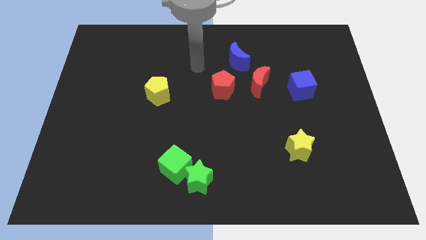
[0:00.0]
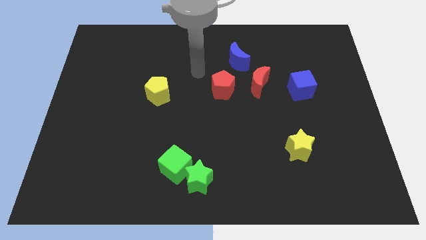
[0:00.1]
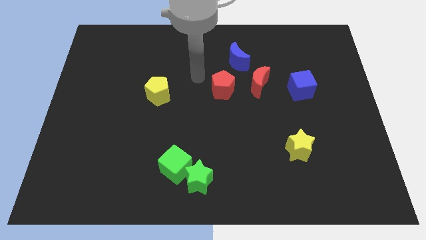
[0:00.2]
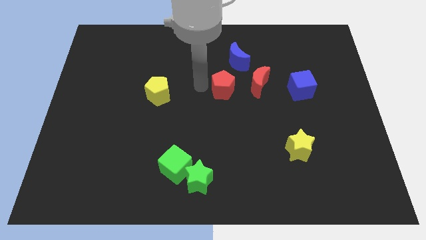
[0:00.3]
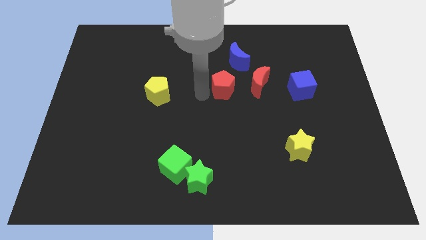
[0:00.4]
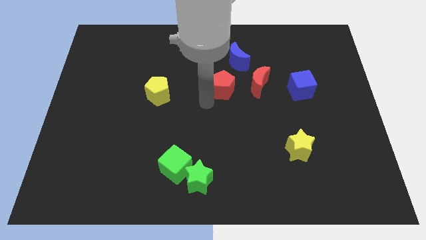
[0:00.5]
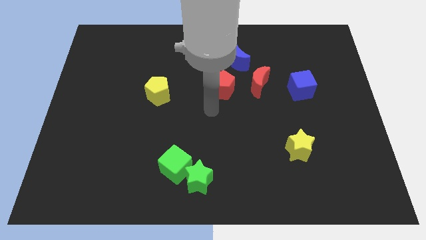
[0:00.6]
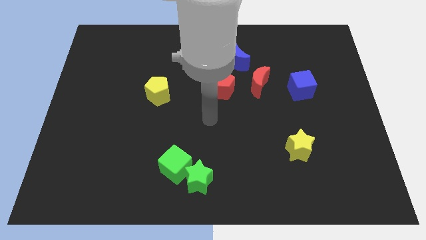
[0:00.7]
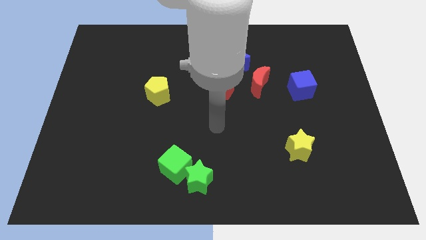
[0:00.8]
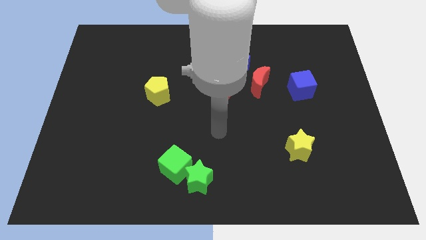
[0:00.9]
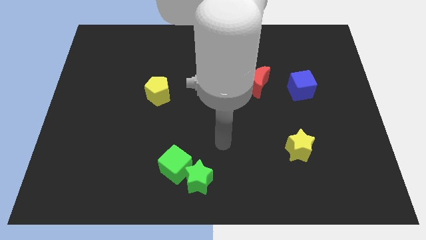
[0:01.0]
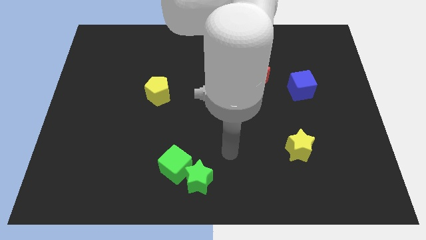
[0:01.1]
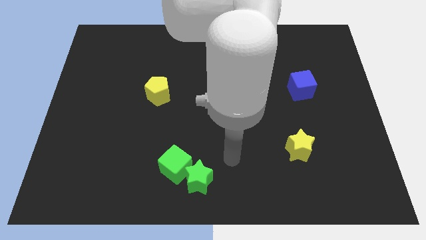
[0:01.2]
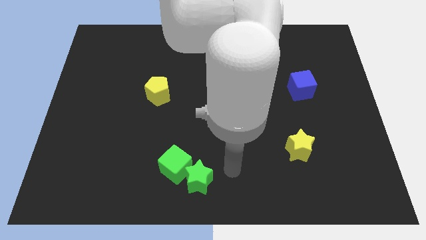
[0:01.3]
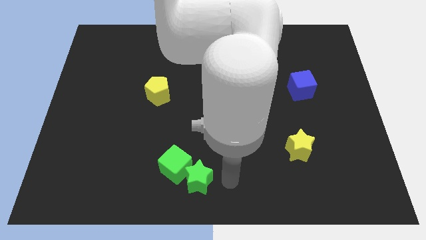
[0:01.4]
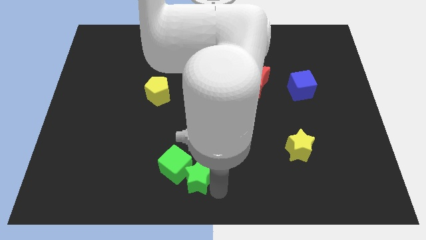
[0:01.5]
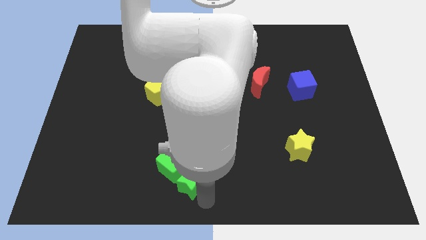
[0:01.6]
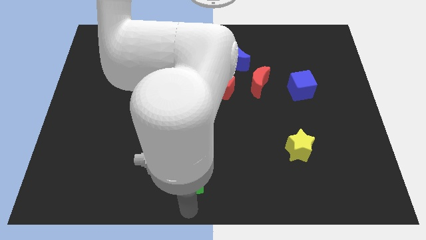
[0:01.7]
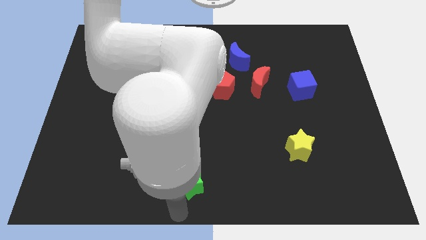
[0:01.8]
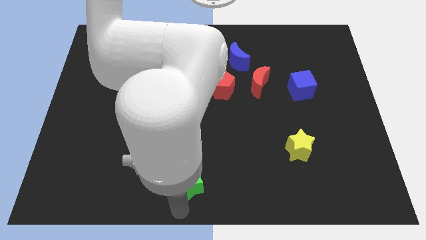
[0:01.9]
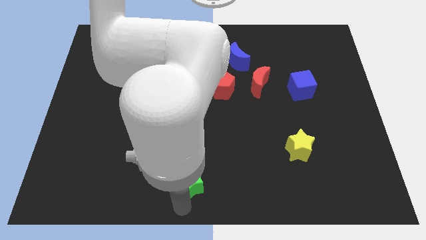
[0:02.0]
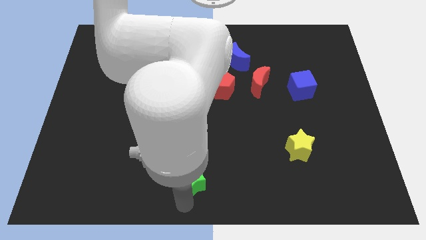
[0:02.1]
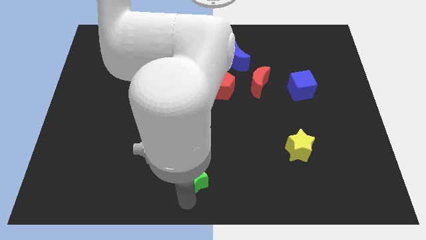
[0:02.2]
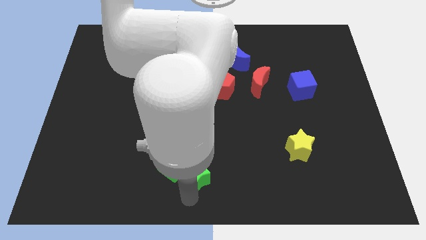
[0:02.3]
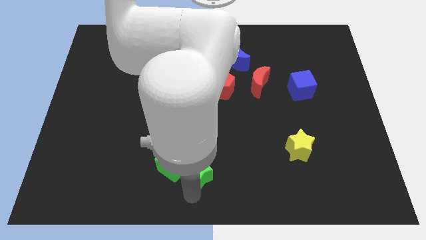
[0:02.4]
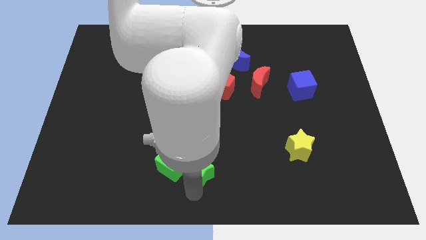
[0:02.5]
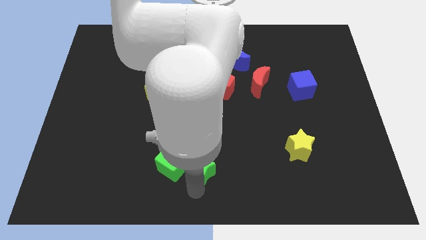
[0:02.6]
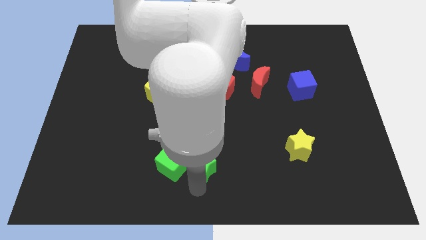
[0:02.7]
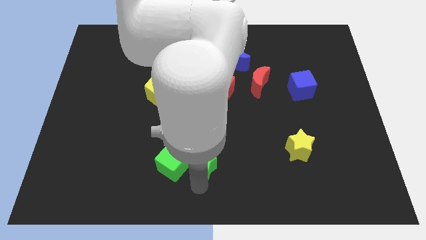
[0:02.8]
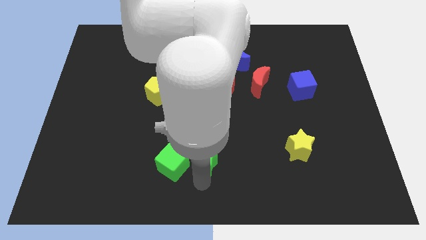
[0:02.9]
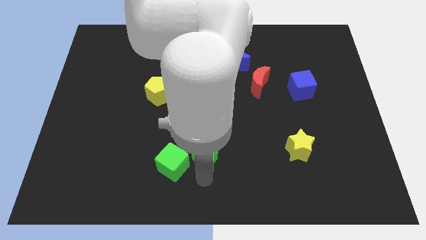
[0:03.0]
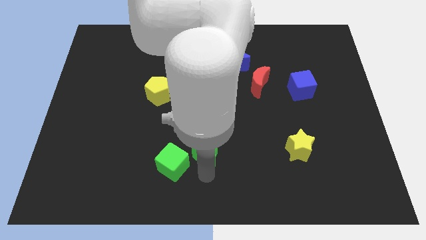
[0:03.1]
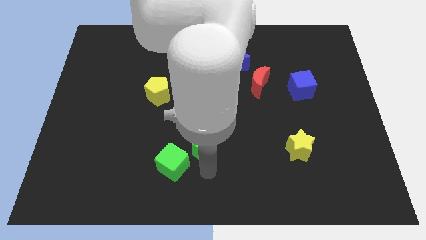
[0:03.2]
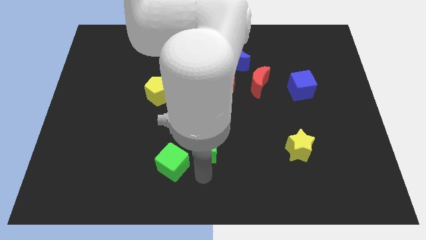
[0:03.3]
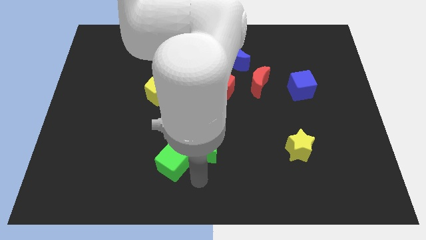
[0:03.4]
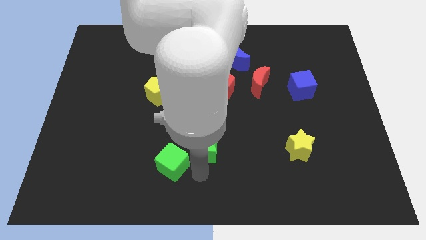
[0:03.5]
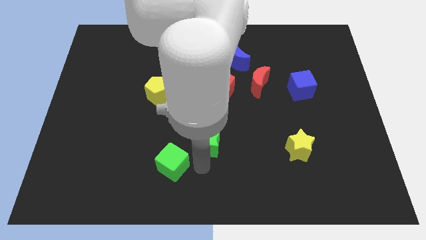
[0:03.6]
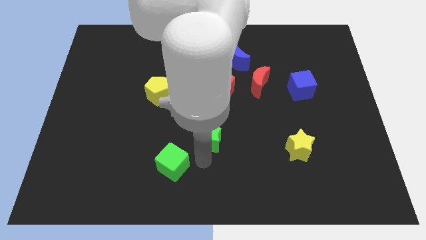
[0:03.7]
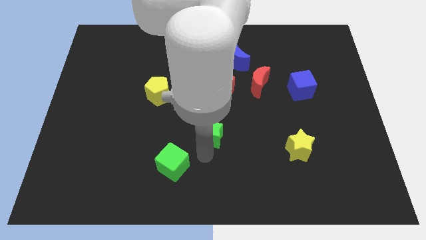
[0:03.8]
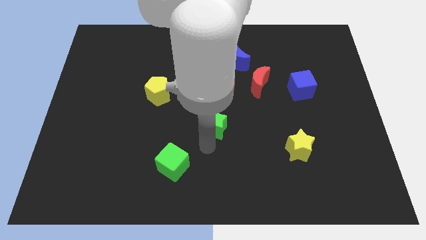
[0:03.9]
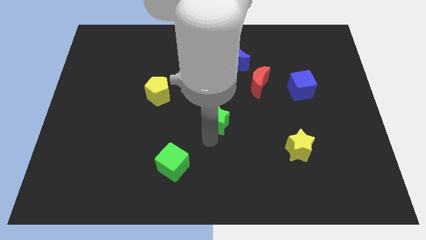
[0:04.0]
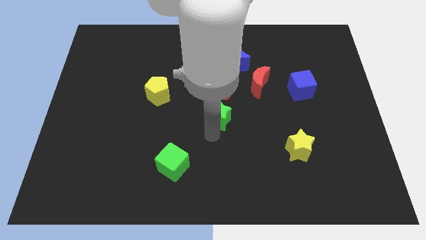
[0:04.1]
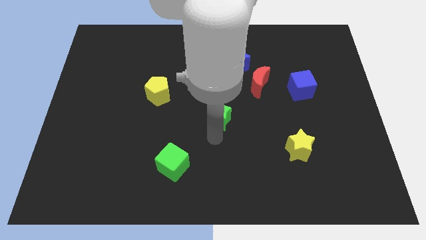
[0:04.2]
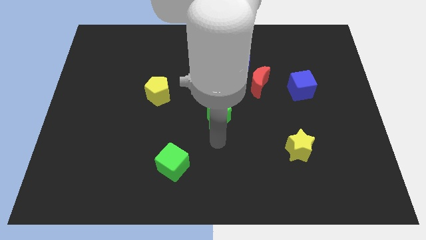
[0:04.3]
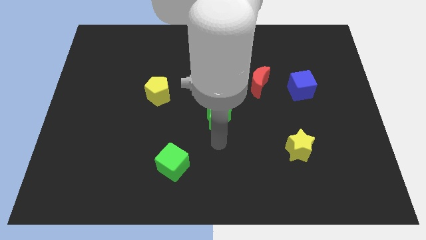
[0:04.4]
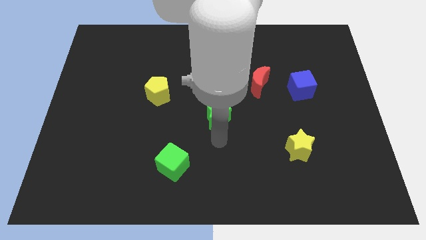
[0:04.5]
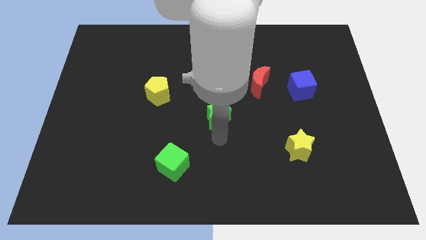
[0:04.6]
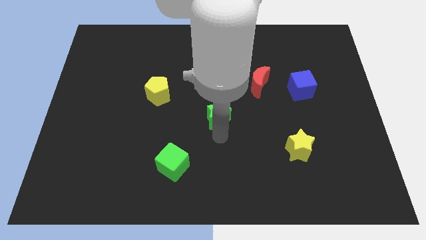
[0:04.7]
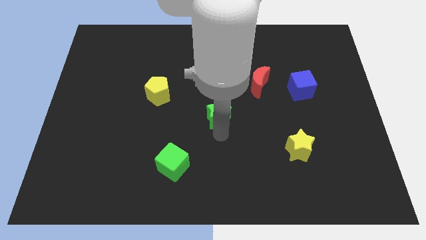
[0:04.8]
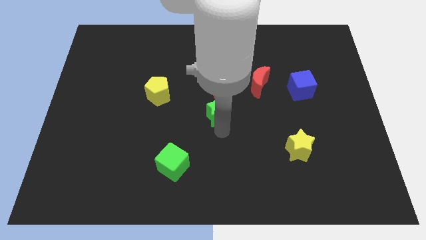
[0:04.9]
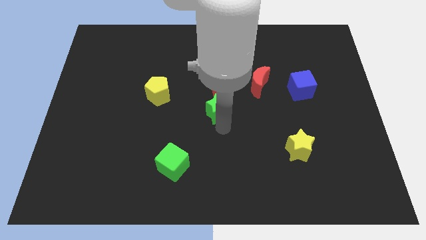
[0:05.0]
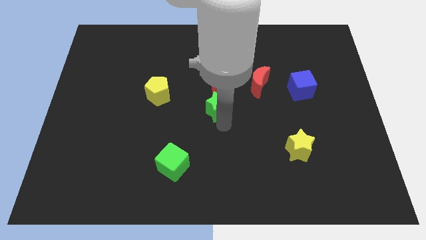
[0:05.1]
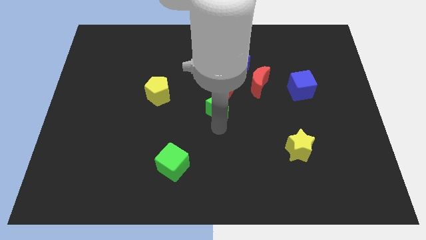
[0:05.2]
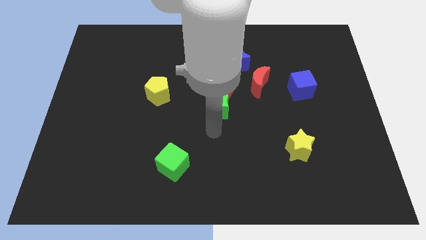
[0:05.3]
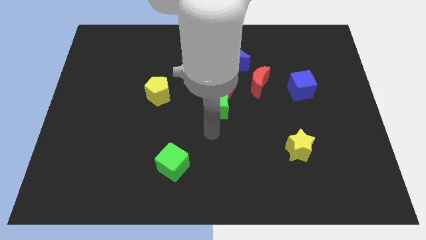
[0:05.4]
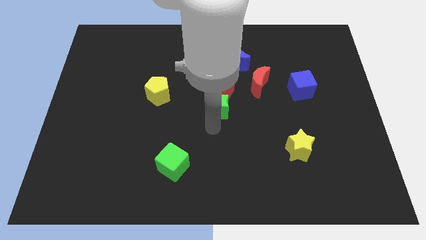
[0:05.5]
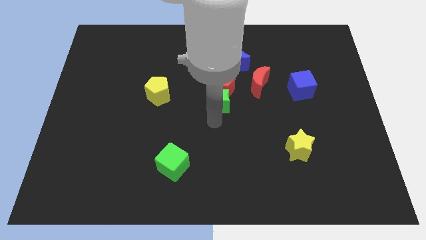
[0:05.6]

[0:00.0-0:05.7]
slide the green star towards the red pentagon

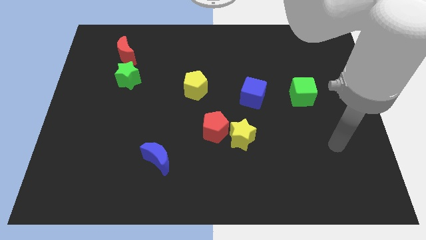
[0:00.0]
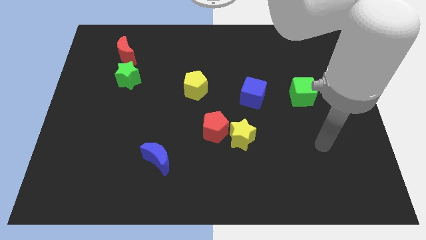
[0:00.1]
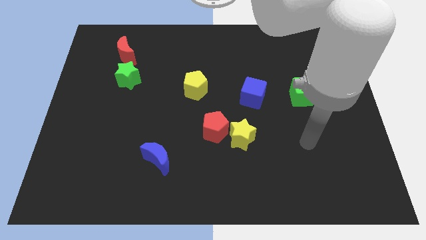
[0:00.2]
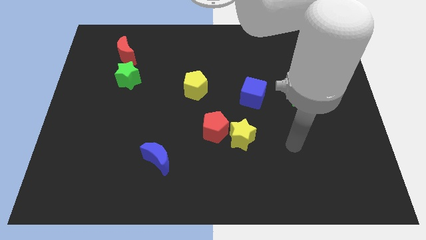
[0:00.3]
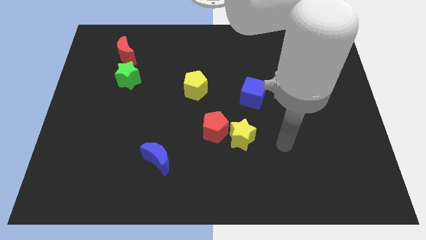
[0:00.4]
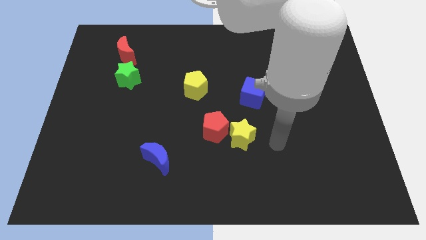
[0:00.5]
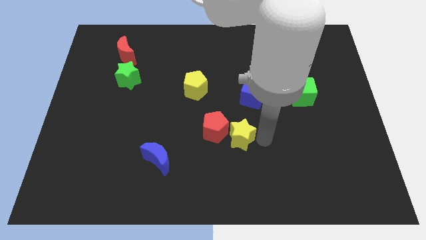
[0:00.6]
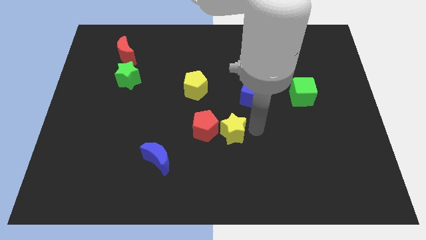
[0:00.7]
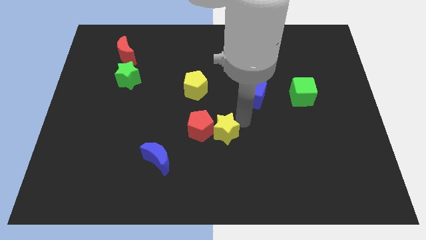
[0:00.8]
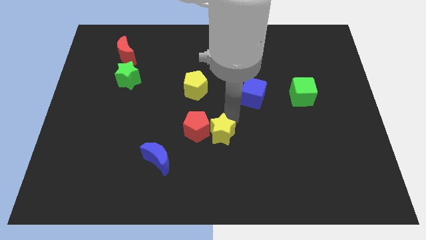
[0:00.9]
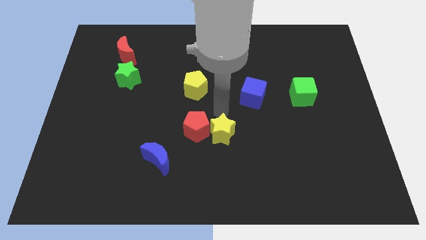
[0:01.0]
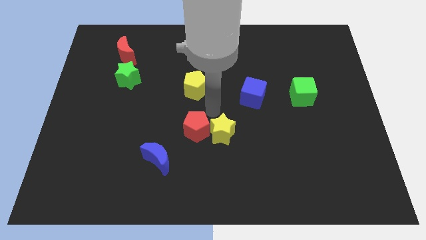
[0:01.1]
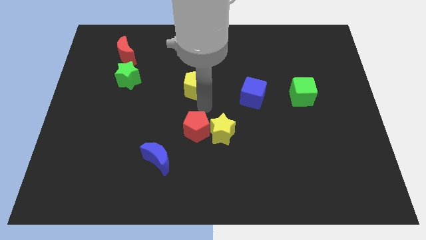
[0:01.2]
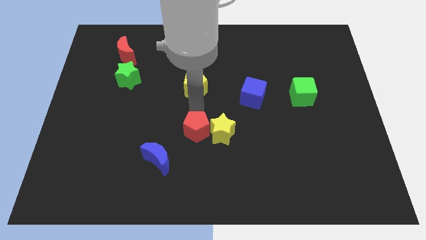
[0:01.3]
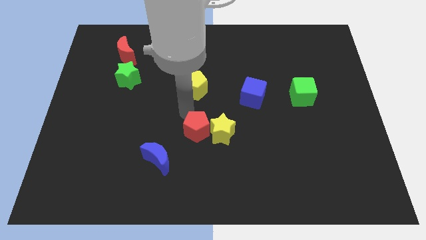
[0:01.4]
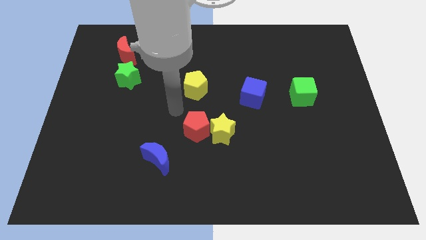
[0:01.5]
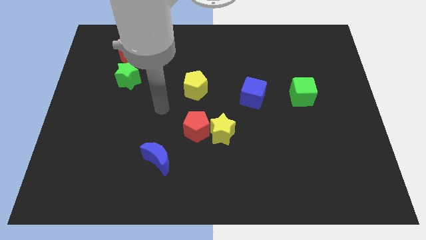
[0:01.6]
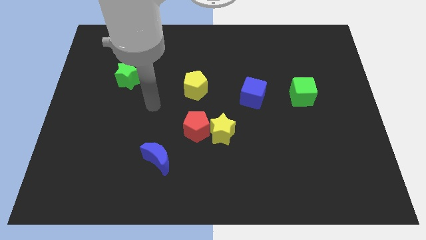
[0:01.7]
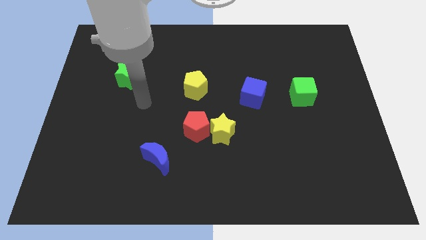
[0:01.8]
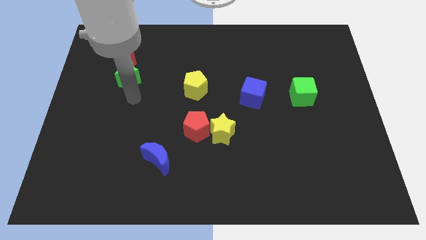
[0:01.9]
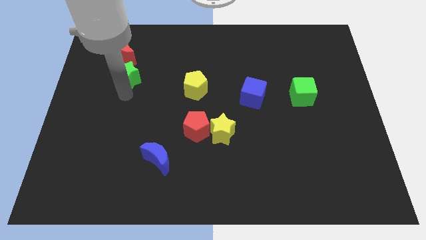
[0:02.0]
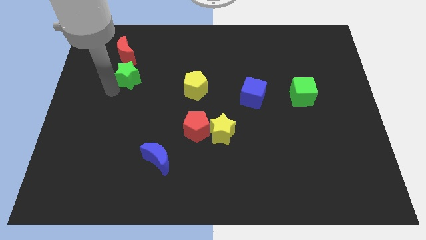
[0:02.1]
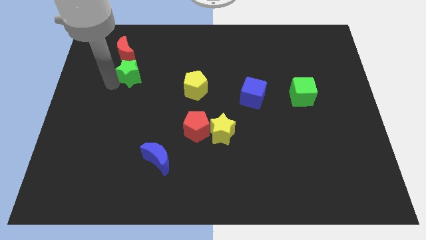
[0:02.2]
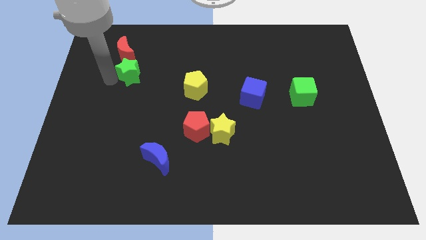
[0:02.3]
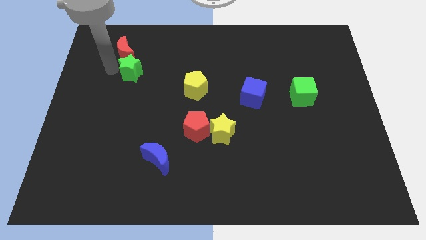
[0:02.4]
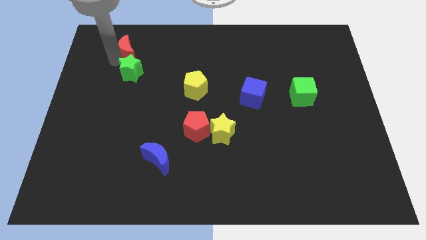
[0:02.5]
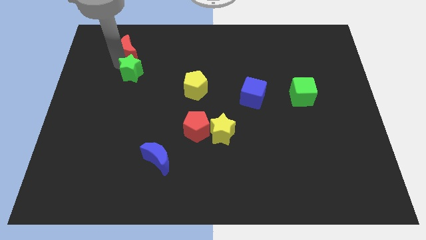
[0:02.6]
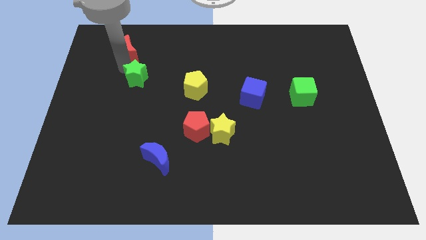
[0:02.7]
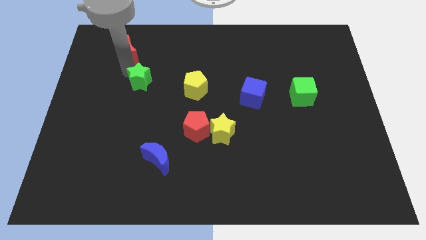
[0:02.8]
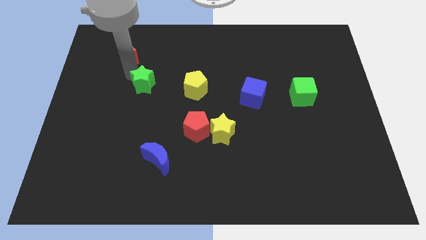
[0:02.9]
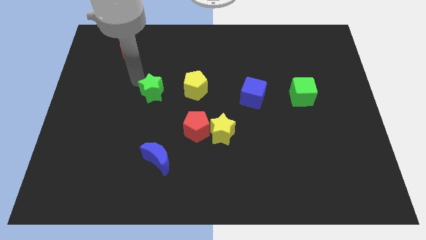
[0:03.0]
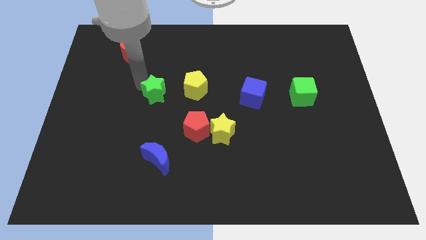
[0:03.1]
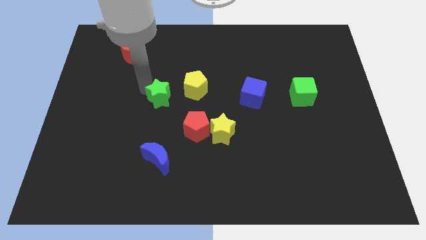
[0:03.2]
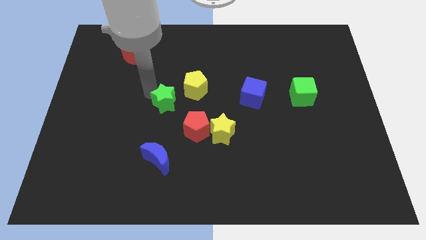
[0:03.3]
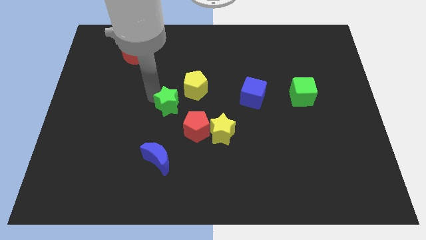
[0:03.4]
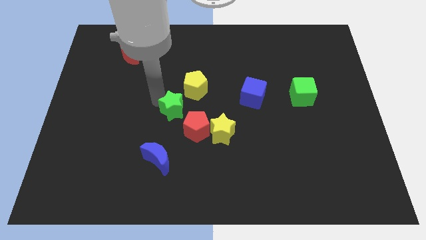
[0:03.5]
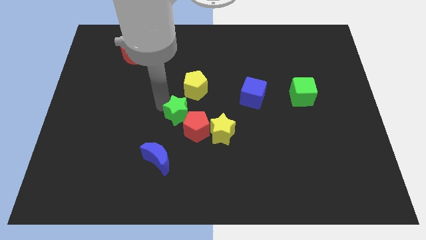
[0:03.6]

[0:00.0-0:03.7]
push the green star next to the red pentagon
